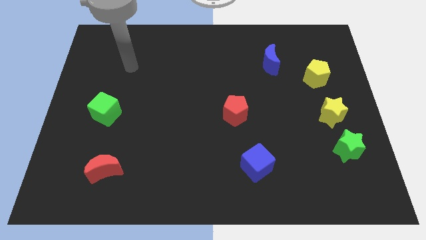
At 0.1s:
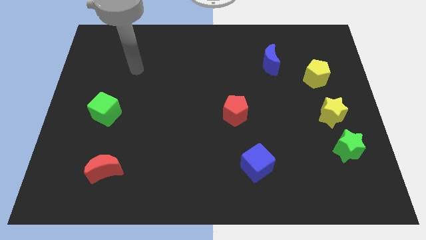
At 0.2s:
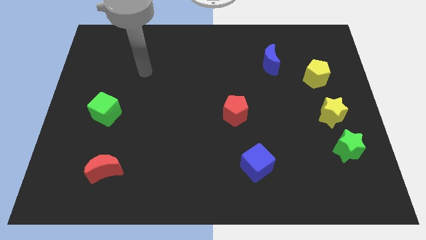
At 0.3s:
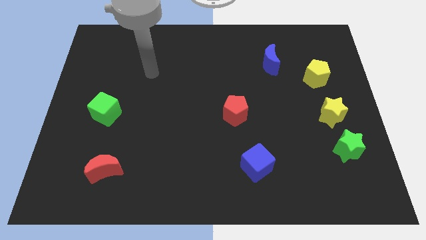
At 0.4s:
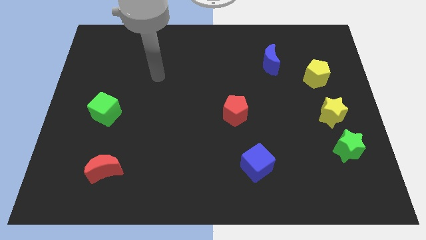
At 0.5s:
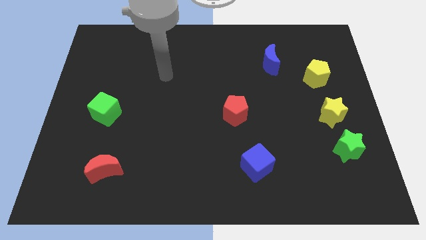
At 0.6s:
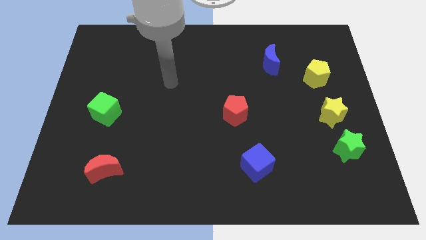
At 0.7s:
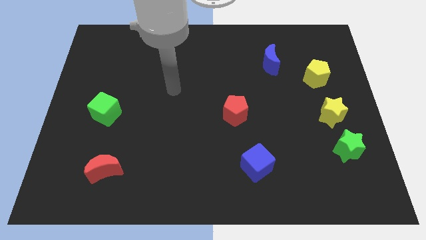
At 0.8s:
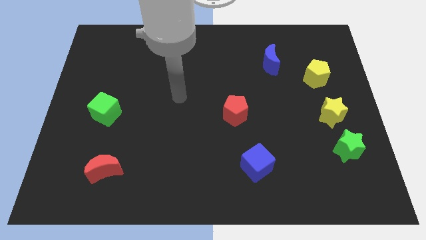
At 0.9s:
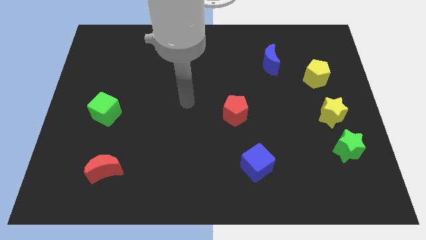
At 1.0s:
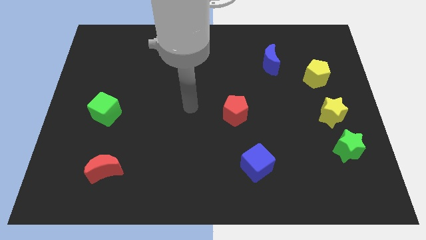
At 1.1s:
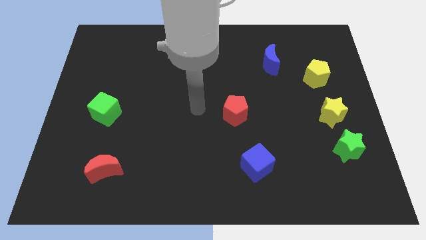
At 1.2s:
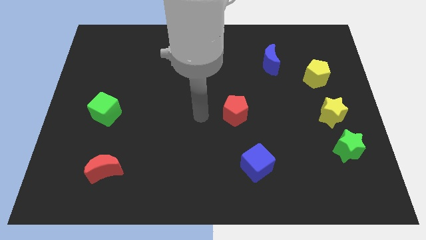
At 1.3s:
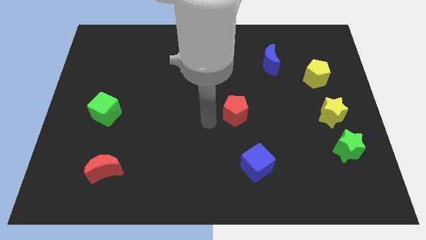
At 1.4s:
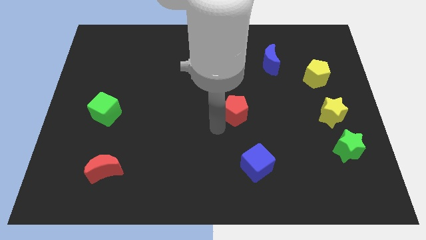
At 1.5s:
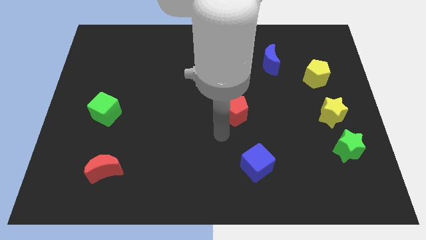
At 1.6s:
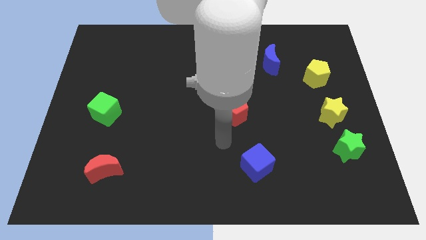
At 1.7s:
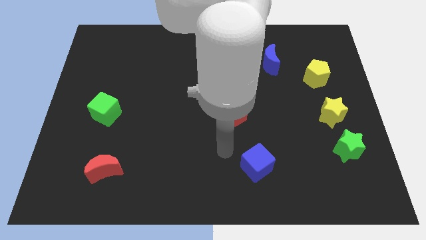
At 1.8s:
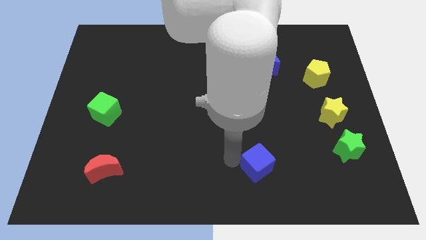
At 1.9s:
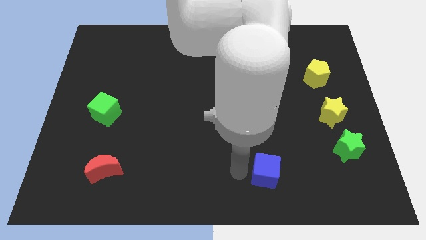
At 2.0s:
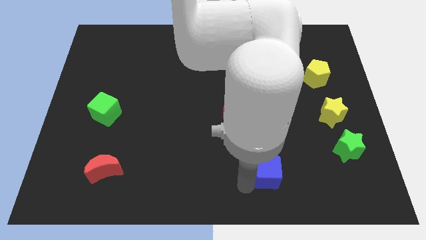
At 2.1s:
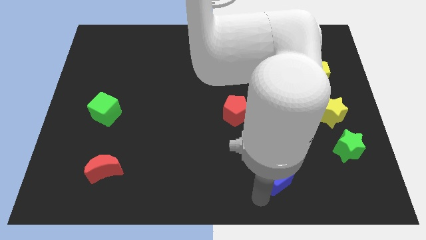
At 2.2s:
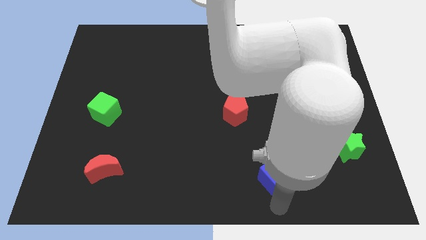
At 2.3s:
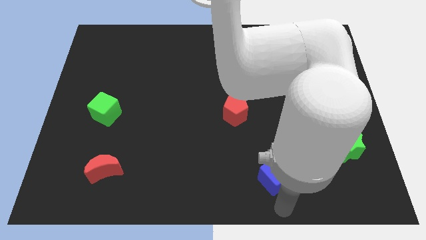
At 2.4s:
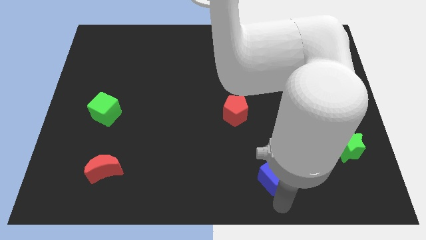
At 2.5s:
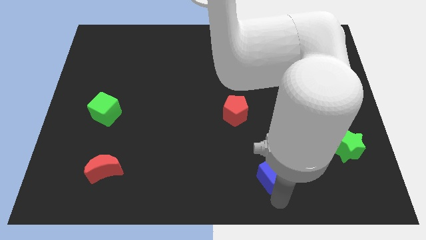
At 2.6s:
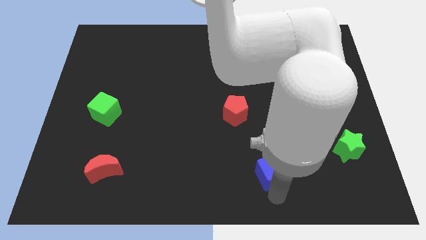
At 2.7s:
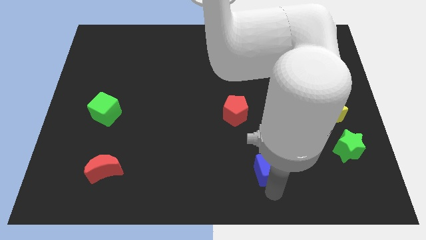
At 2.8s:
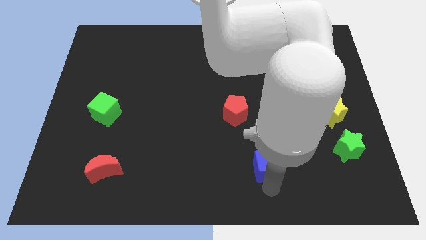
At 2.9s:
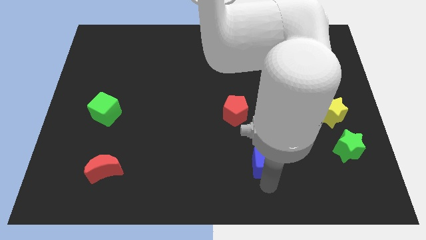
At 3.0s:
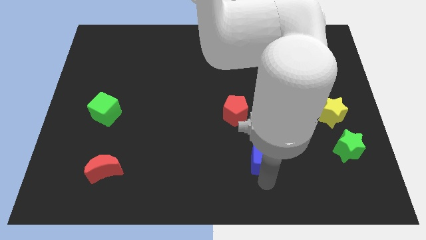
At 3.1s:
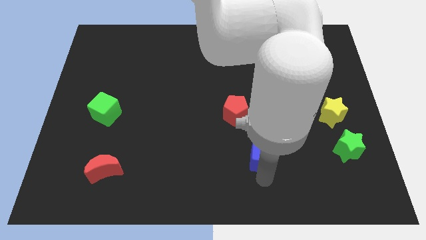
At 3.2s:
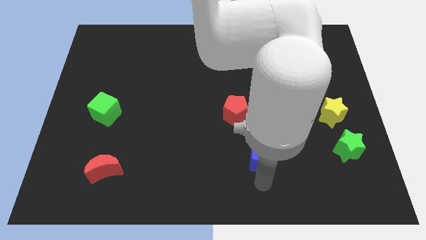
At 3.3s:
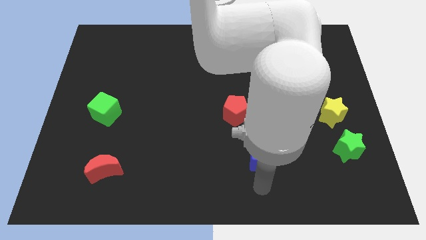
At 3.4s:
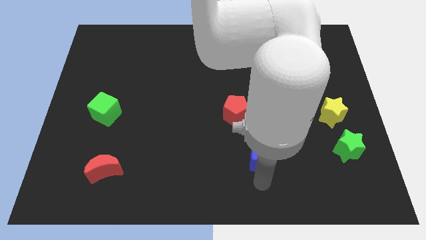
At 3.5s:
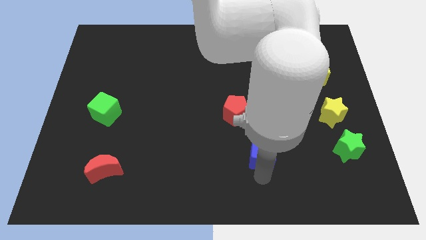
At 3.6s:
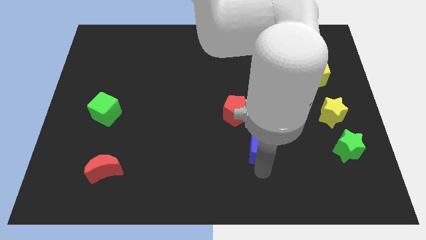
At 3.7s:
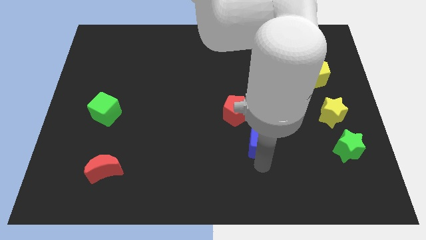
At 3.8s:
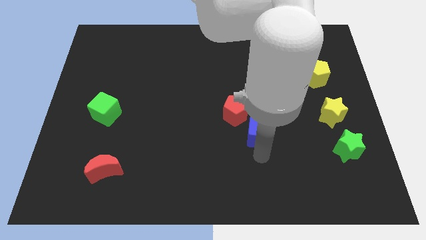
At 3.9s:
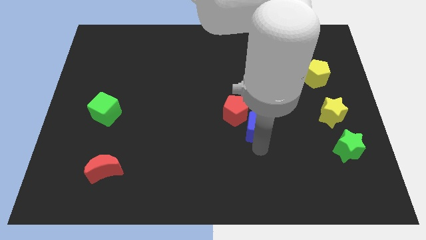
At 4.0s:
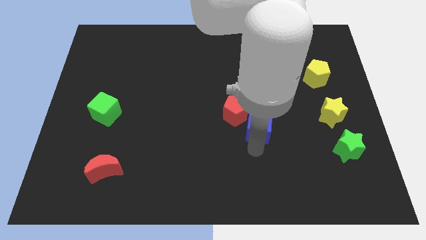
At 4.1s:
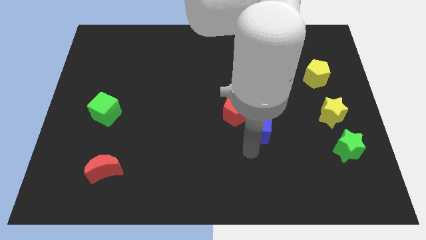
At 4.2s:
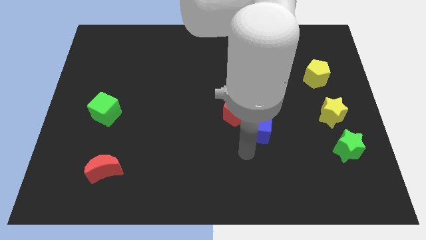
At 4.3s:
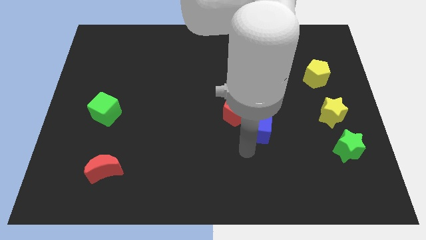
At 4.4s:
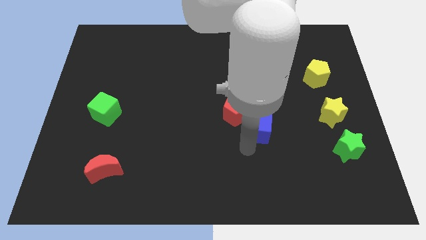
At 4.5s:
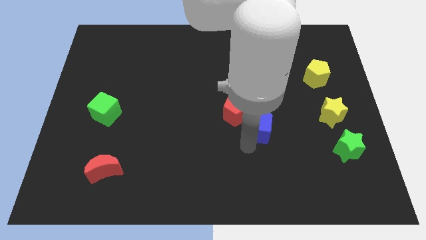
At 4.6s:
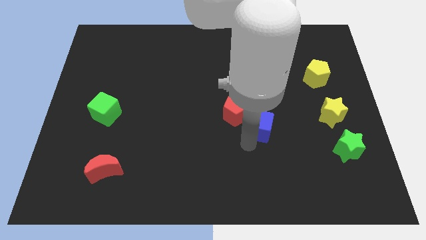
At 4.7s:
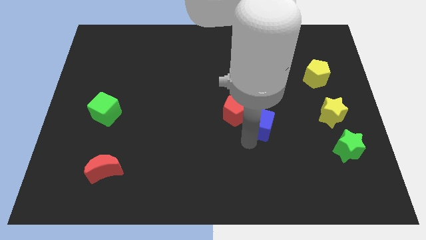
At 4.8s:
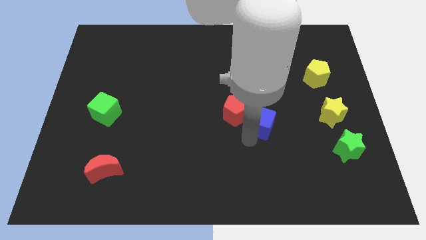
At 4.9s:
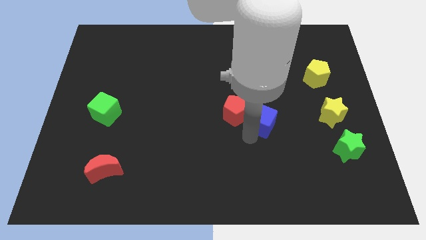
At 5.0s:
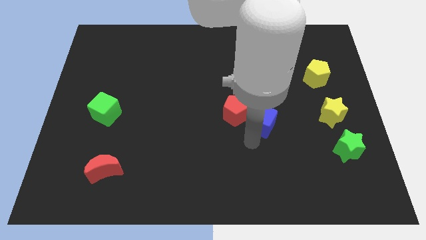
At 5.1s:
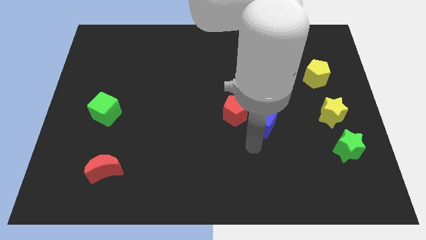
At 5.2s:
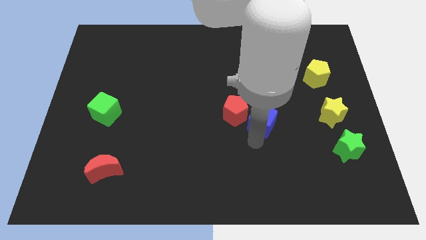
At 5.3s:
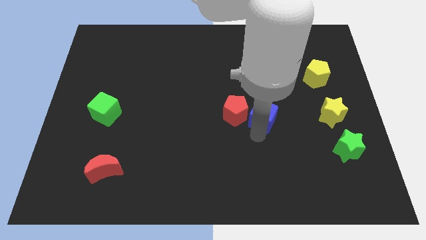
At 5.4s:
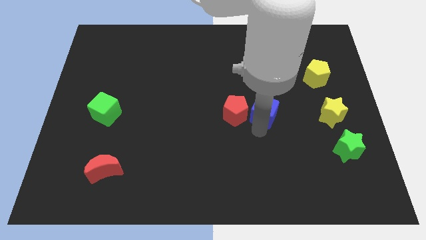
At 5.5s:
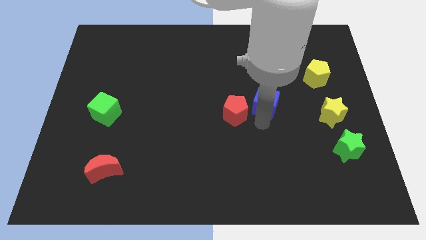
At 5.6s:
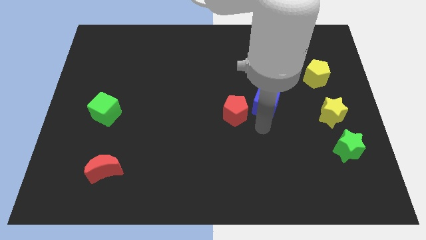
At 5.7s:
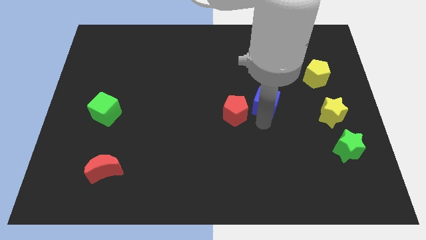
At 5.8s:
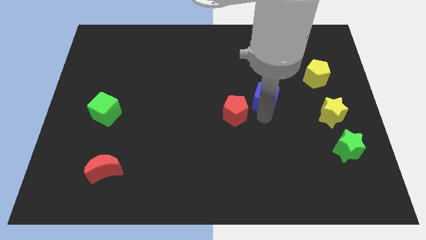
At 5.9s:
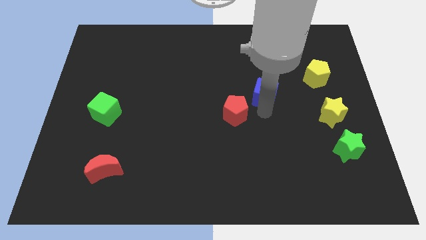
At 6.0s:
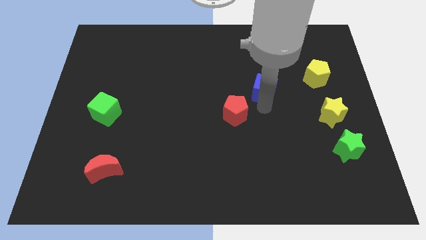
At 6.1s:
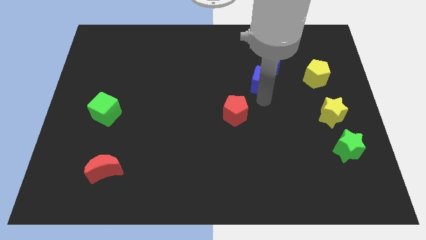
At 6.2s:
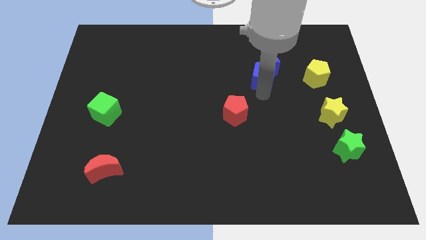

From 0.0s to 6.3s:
move the blue cube close to the blue moon

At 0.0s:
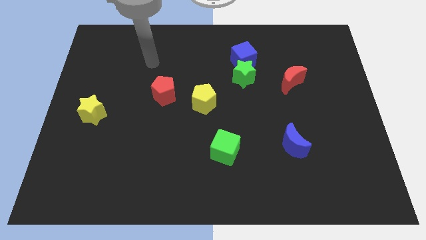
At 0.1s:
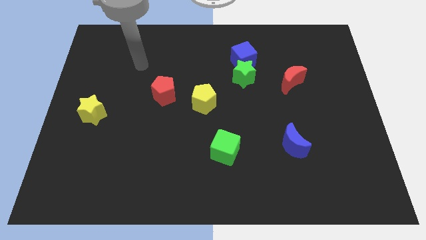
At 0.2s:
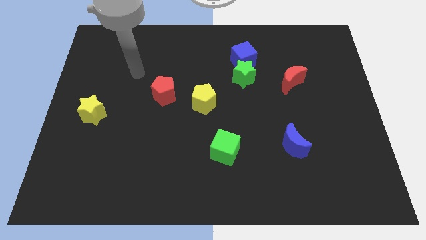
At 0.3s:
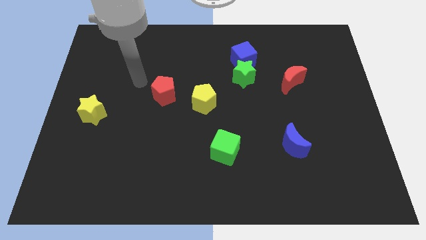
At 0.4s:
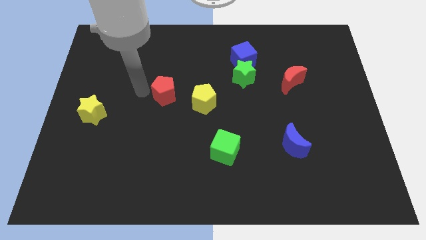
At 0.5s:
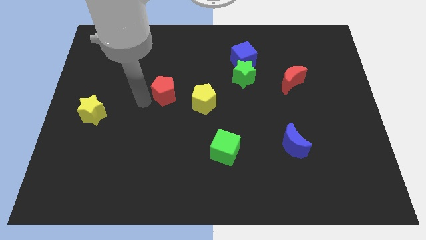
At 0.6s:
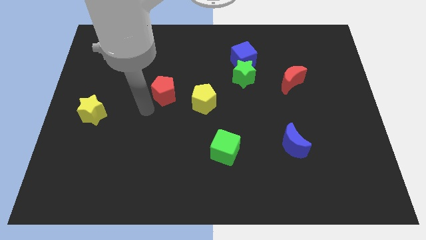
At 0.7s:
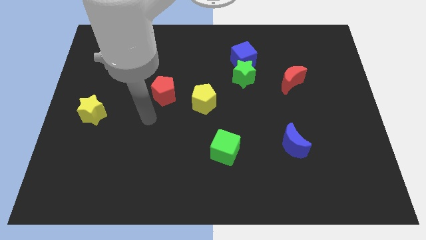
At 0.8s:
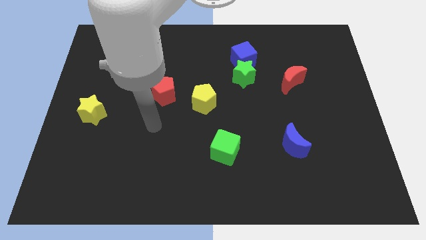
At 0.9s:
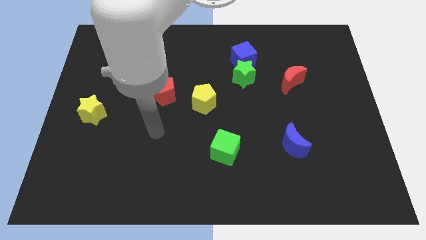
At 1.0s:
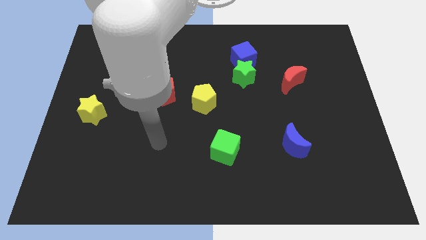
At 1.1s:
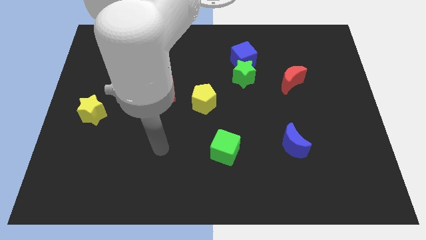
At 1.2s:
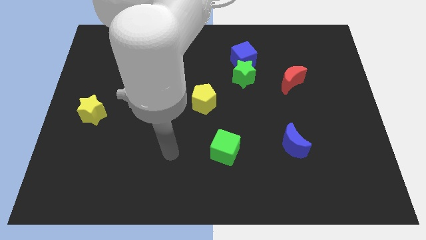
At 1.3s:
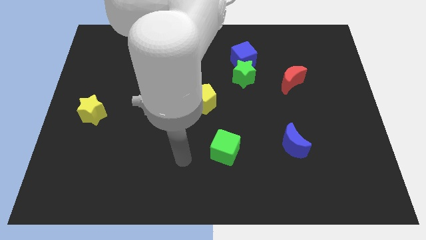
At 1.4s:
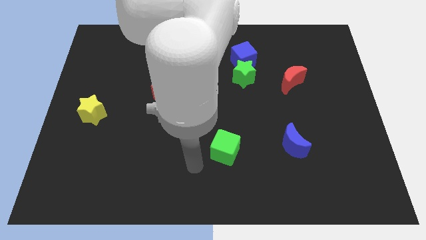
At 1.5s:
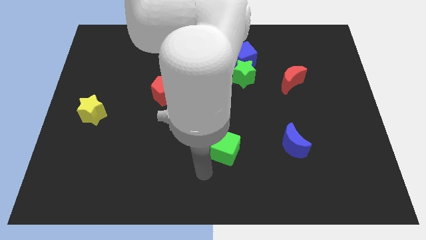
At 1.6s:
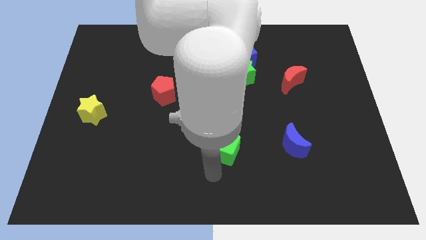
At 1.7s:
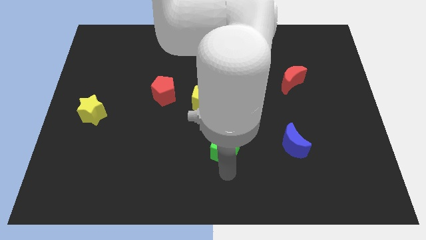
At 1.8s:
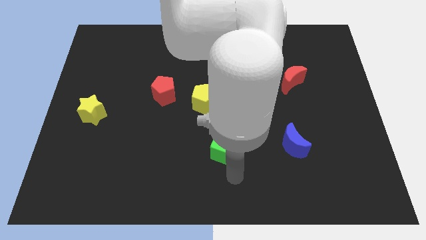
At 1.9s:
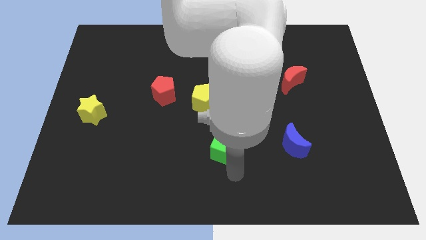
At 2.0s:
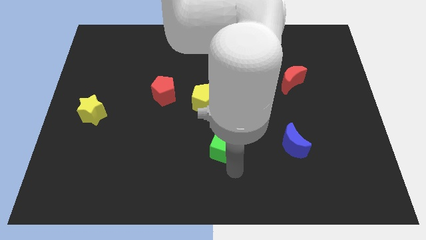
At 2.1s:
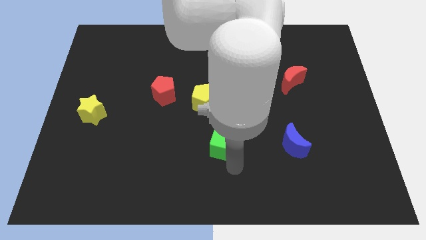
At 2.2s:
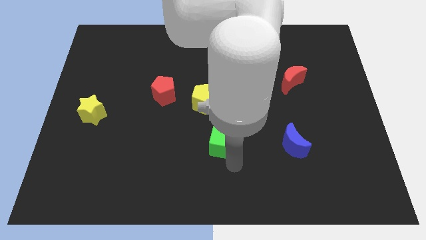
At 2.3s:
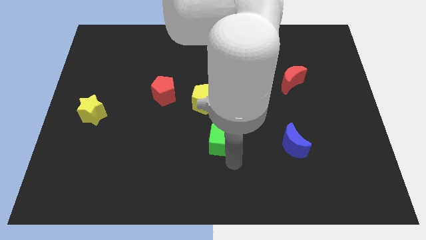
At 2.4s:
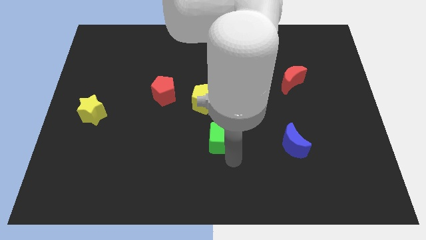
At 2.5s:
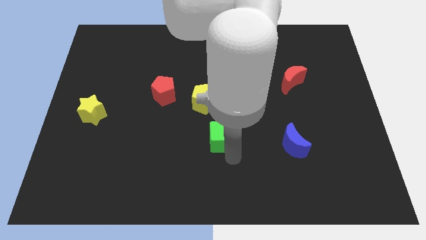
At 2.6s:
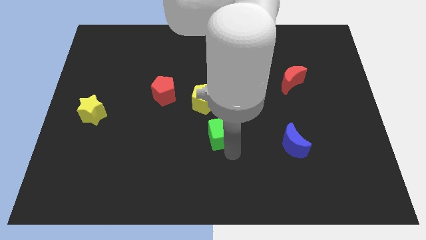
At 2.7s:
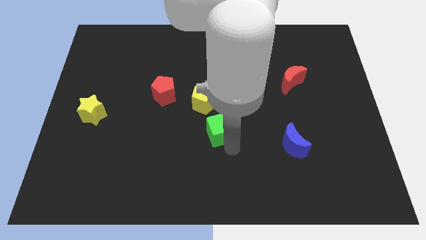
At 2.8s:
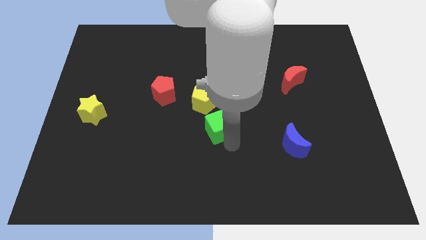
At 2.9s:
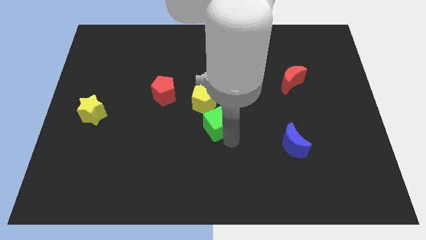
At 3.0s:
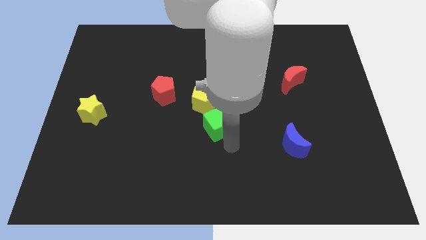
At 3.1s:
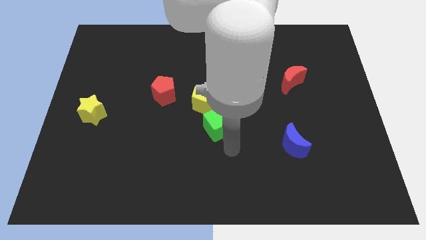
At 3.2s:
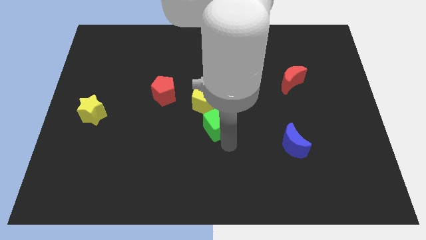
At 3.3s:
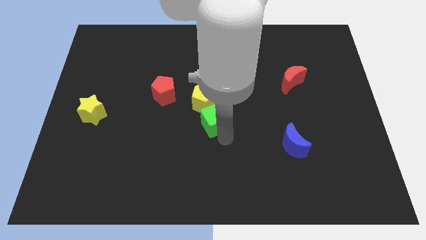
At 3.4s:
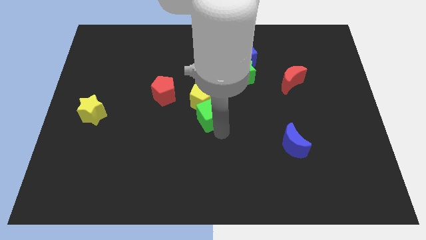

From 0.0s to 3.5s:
move the green cube towards the yellow pentagon
